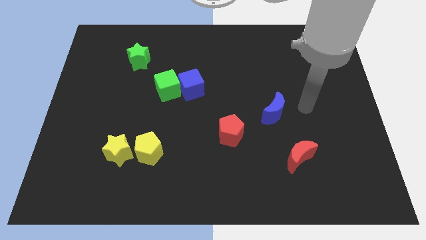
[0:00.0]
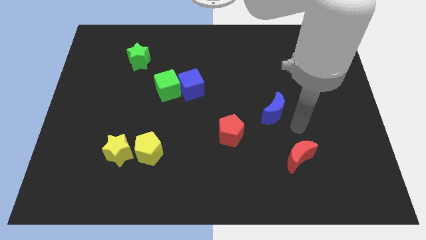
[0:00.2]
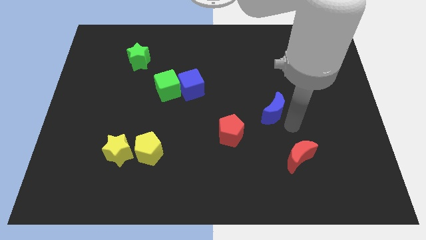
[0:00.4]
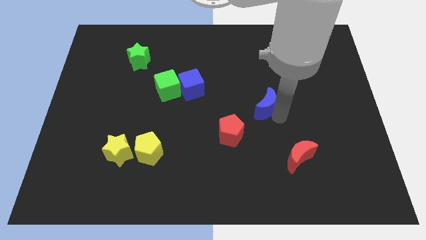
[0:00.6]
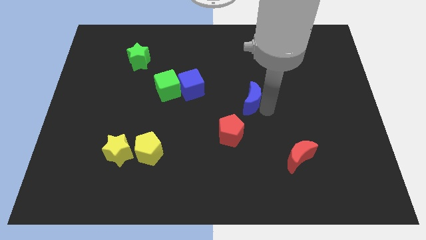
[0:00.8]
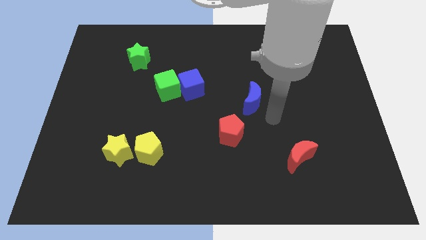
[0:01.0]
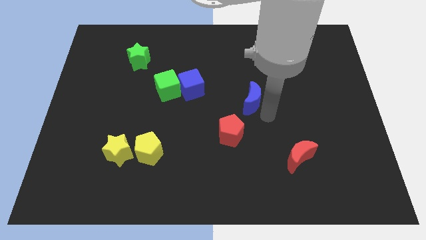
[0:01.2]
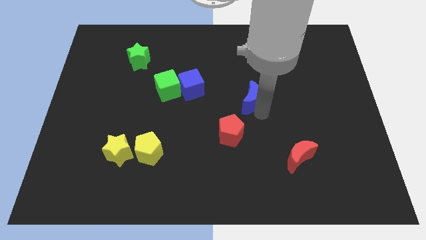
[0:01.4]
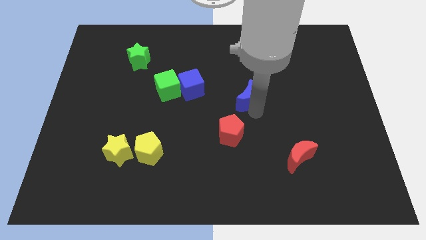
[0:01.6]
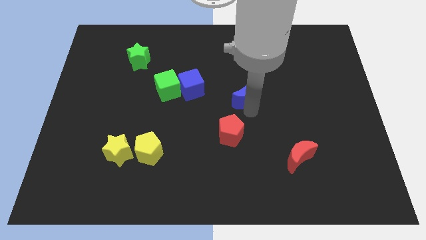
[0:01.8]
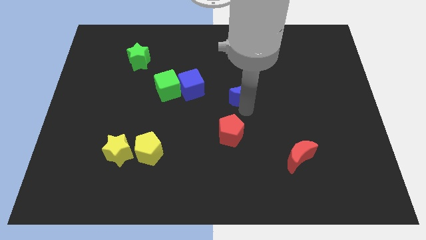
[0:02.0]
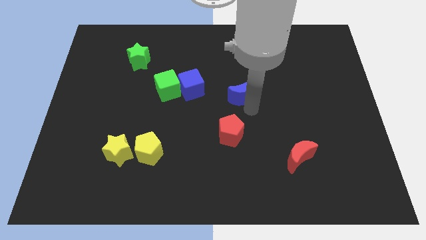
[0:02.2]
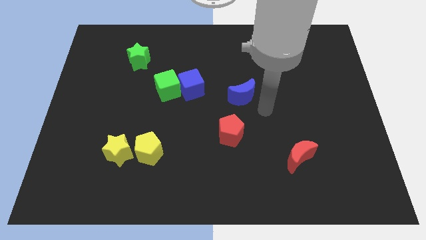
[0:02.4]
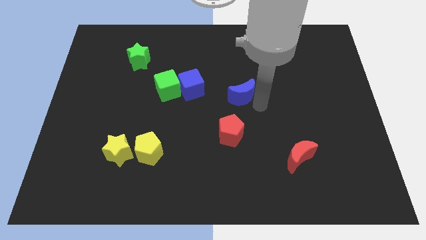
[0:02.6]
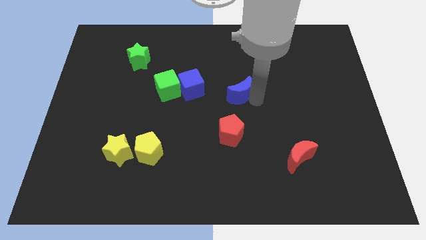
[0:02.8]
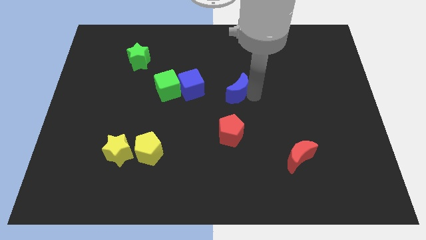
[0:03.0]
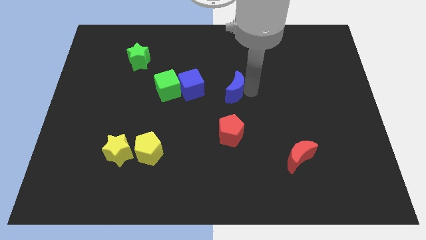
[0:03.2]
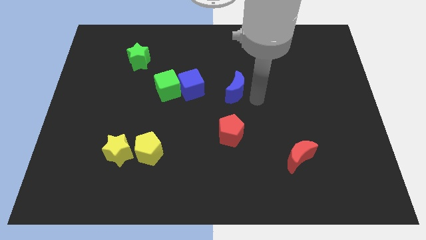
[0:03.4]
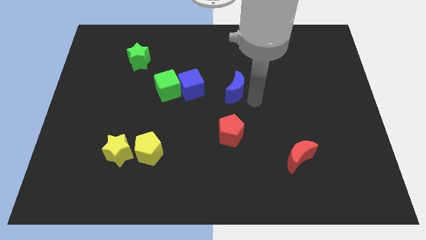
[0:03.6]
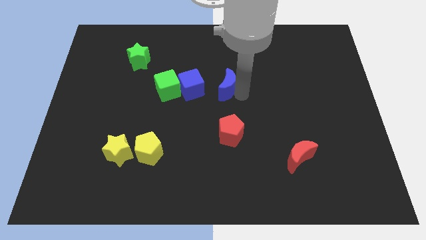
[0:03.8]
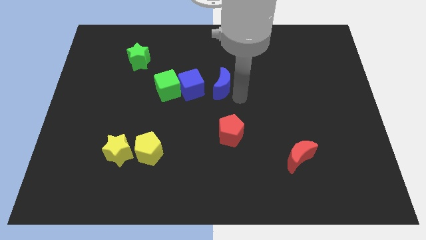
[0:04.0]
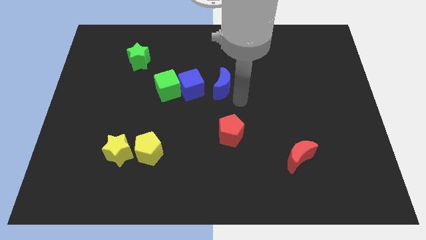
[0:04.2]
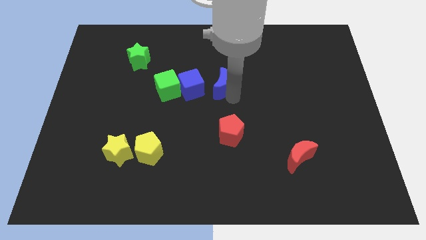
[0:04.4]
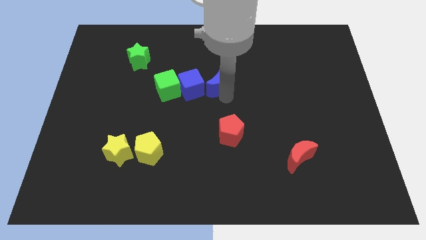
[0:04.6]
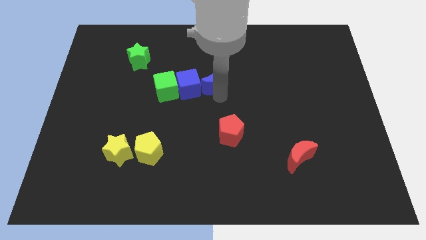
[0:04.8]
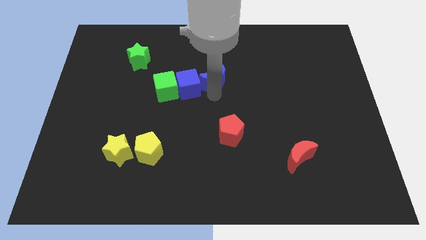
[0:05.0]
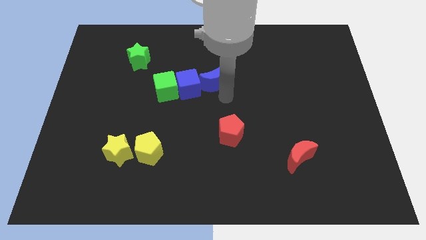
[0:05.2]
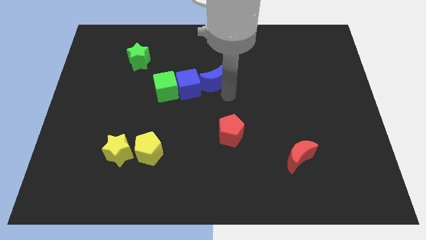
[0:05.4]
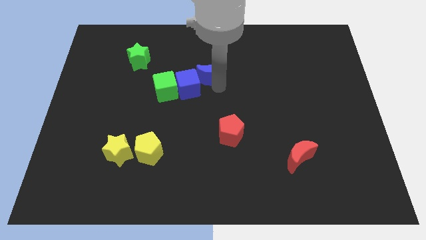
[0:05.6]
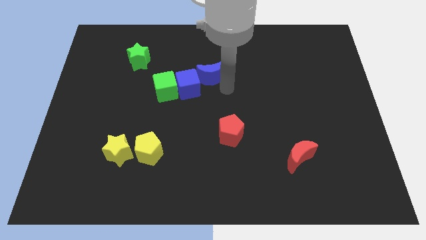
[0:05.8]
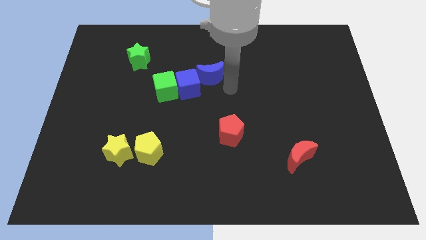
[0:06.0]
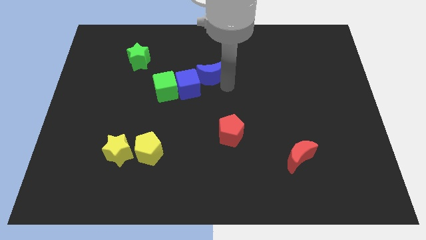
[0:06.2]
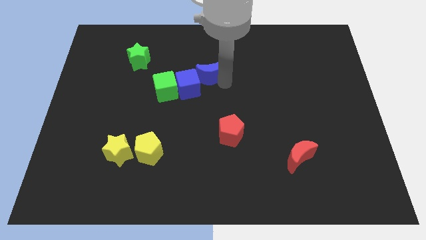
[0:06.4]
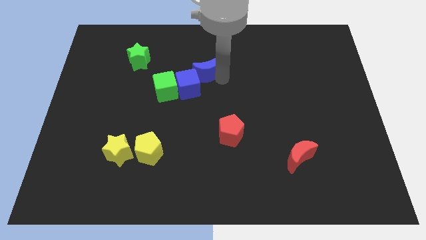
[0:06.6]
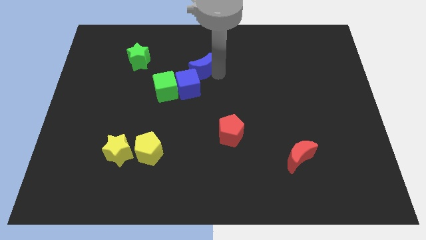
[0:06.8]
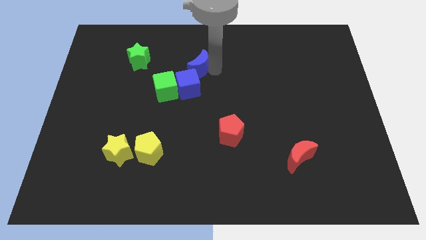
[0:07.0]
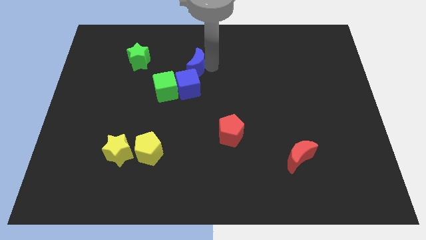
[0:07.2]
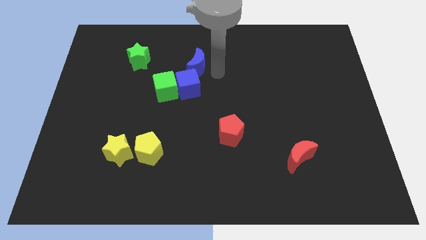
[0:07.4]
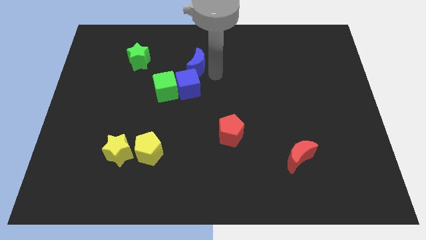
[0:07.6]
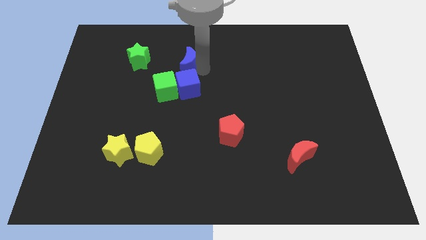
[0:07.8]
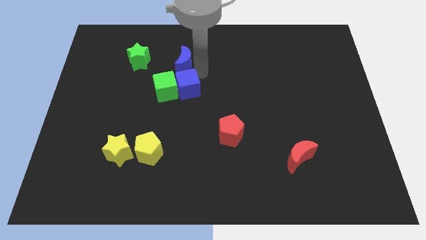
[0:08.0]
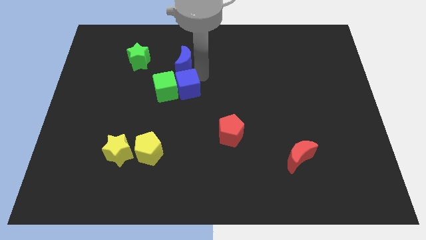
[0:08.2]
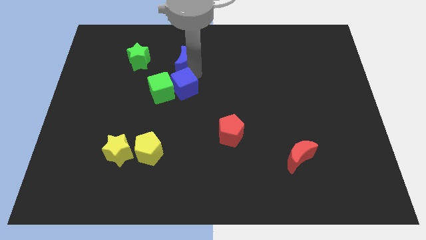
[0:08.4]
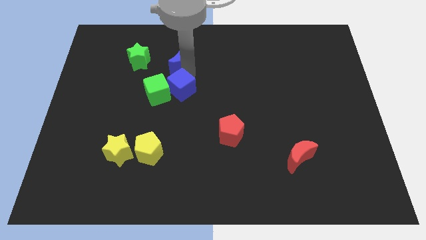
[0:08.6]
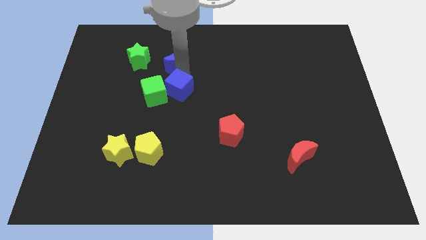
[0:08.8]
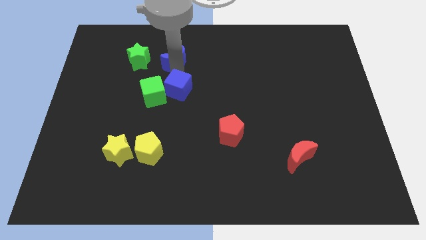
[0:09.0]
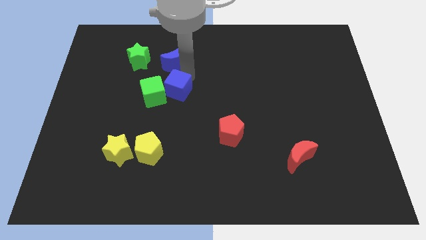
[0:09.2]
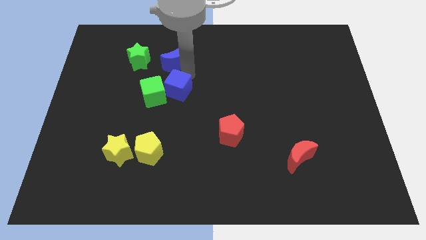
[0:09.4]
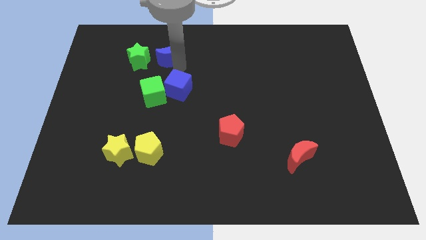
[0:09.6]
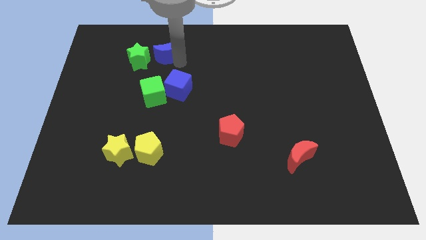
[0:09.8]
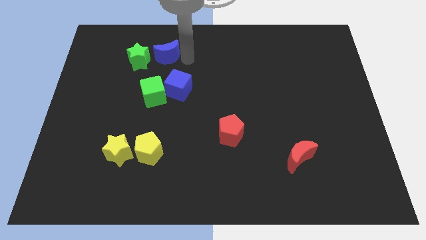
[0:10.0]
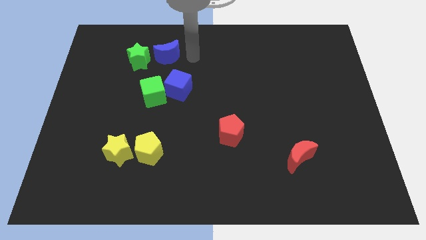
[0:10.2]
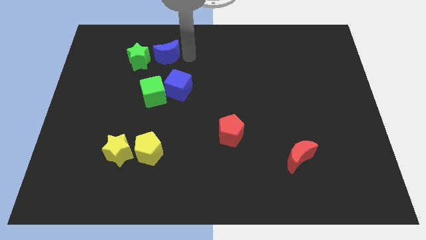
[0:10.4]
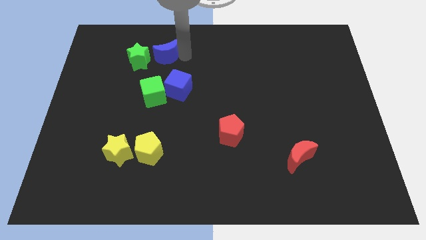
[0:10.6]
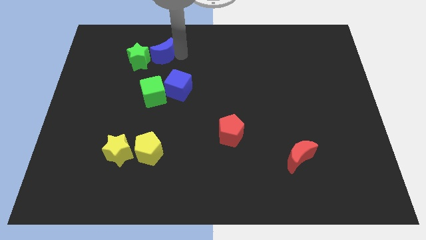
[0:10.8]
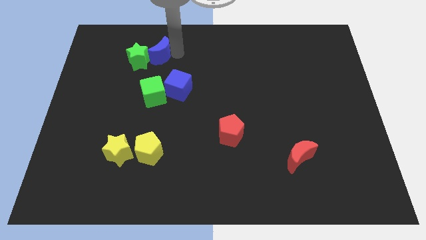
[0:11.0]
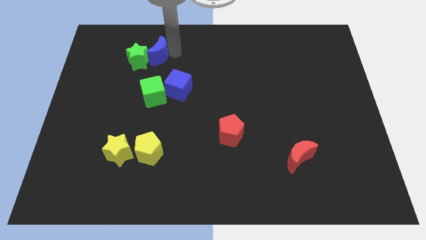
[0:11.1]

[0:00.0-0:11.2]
move the blue moon next to the green star

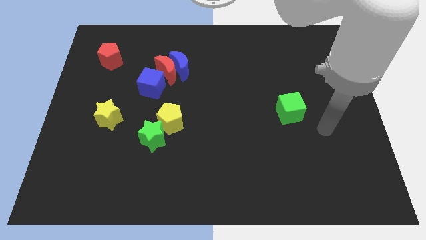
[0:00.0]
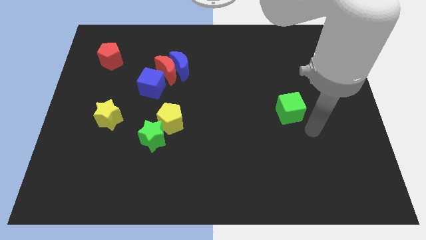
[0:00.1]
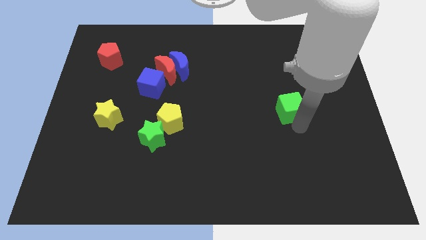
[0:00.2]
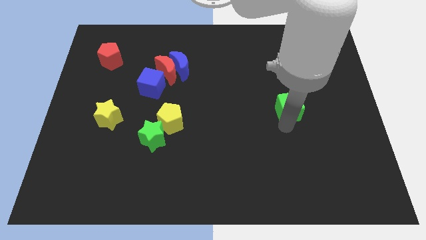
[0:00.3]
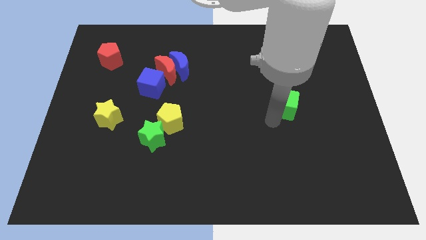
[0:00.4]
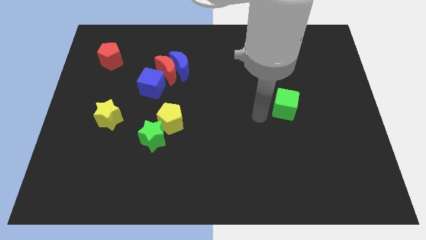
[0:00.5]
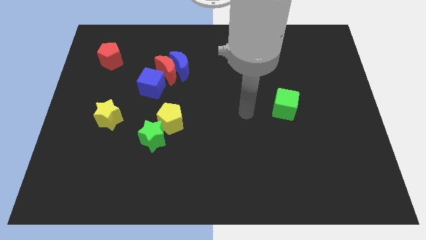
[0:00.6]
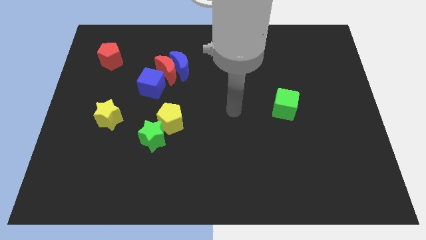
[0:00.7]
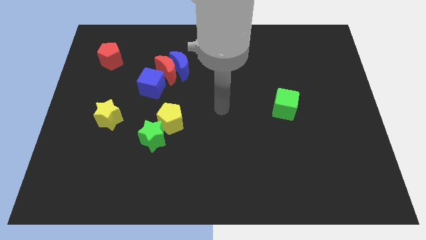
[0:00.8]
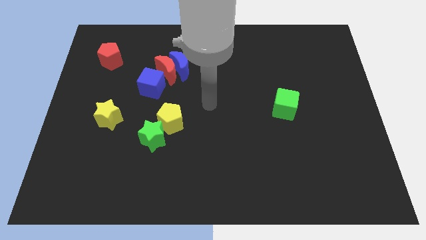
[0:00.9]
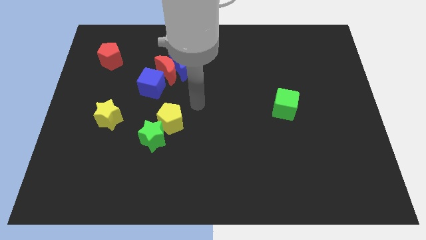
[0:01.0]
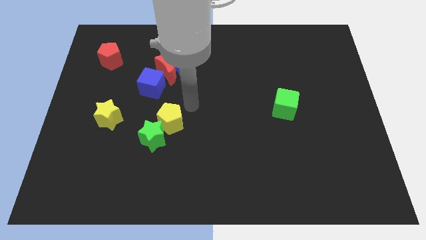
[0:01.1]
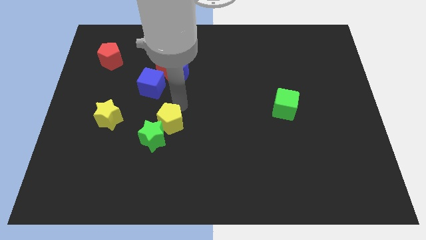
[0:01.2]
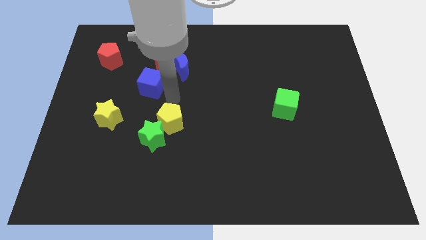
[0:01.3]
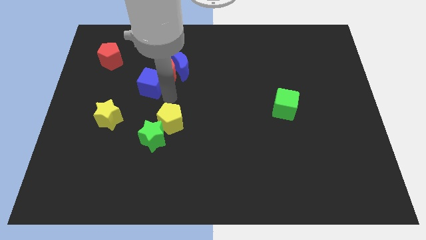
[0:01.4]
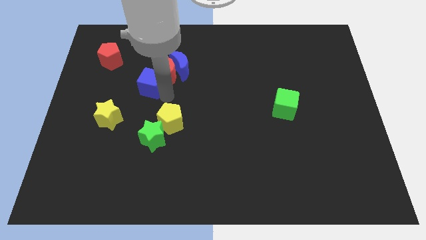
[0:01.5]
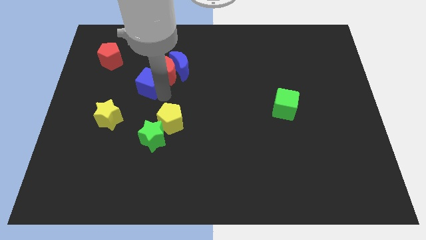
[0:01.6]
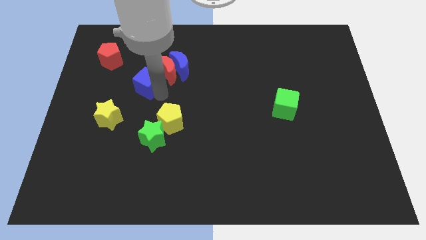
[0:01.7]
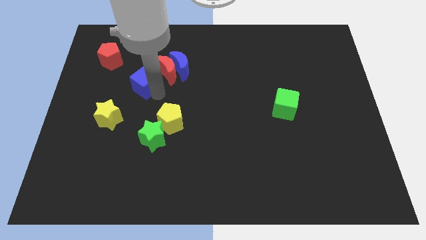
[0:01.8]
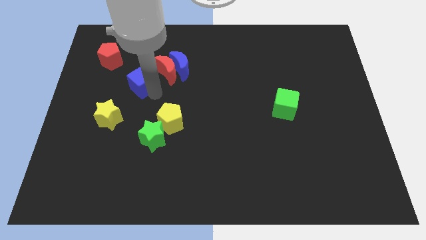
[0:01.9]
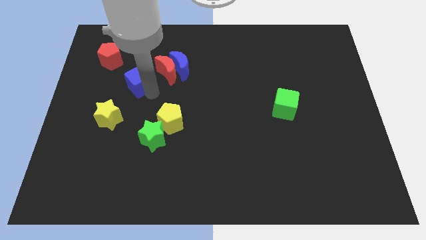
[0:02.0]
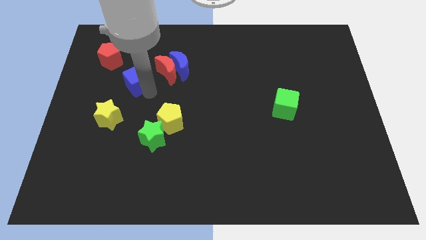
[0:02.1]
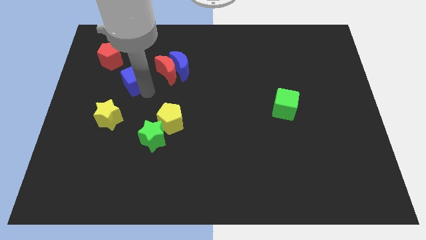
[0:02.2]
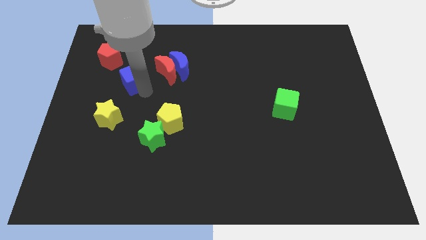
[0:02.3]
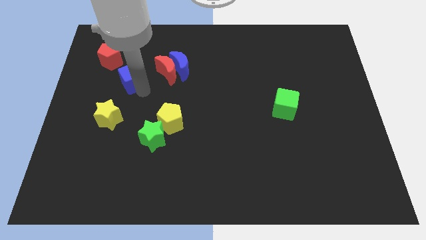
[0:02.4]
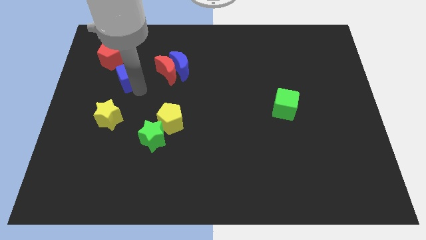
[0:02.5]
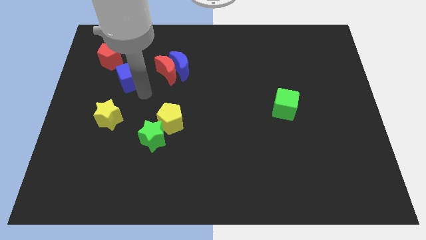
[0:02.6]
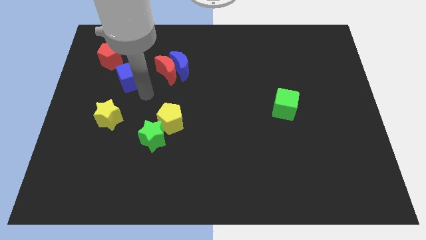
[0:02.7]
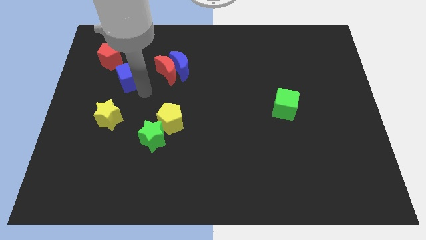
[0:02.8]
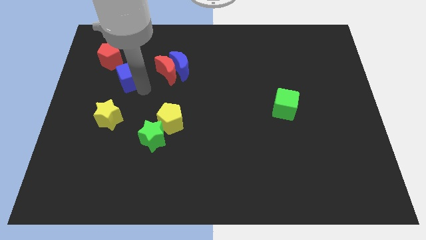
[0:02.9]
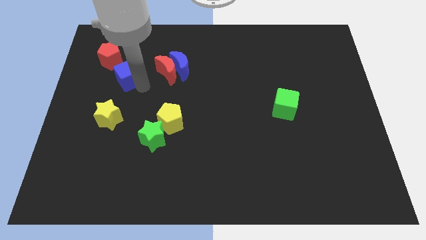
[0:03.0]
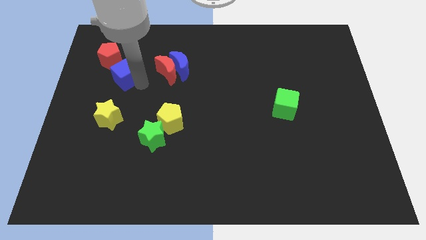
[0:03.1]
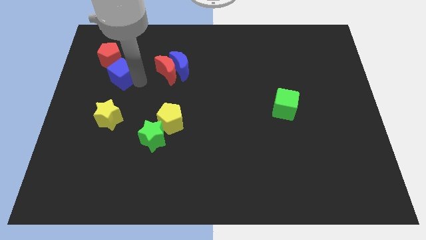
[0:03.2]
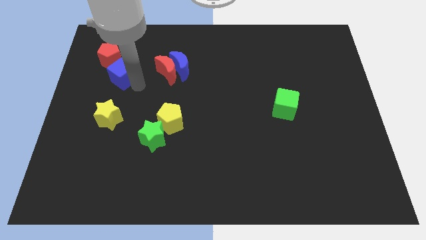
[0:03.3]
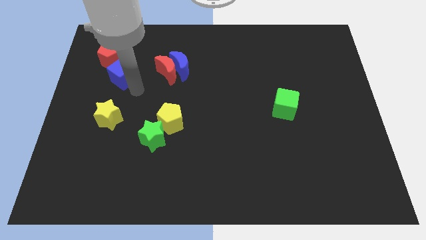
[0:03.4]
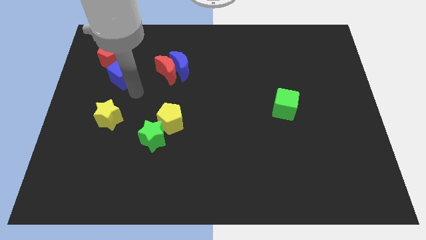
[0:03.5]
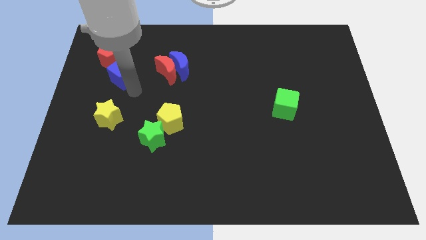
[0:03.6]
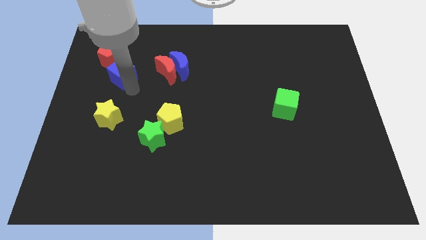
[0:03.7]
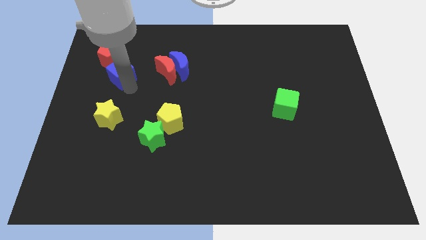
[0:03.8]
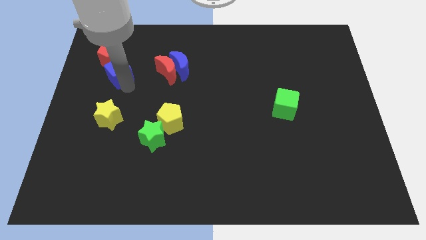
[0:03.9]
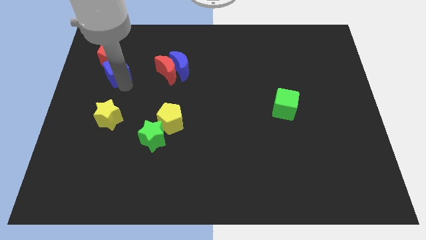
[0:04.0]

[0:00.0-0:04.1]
push the blue cube close to the red pentagon
